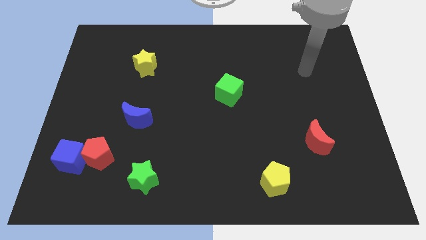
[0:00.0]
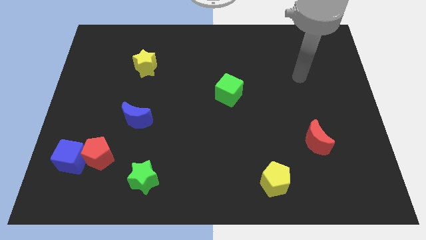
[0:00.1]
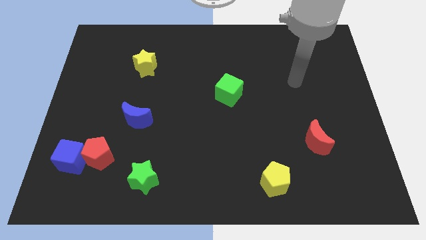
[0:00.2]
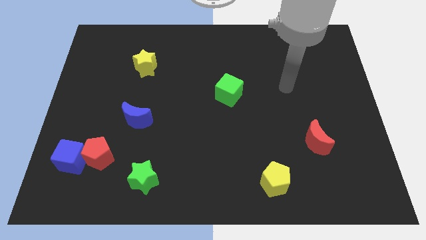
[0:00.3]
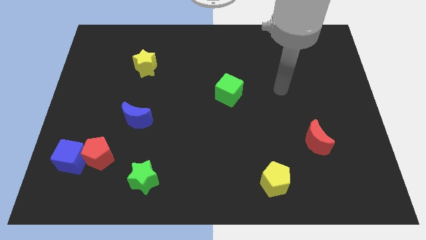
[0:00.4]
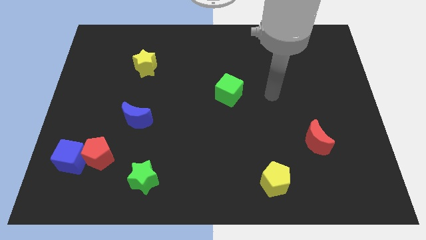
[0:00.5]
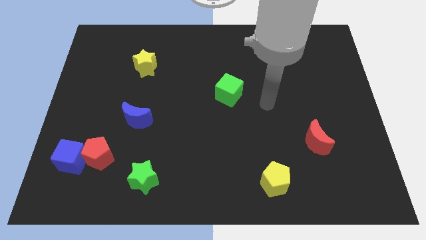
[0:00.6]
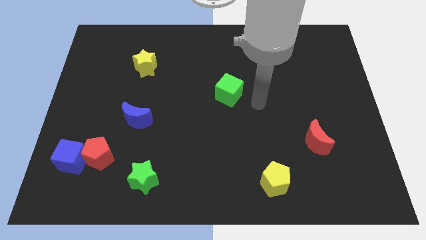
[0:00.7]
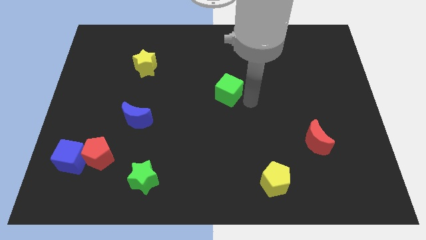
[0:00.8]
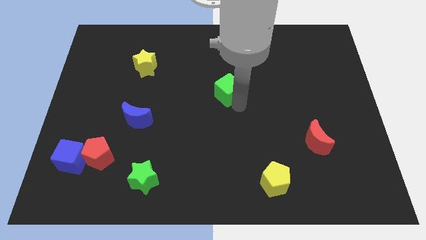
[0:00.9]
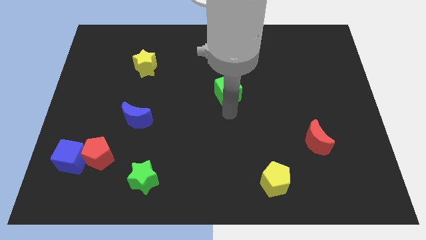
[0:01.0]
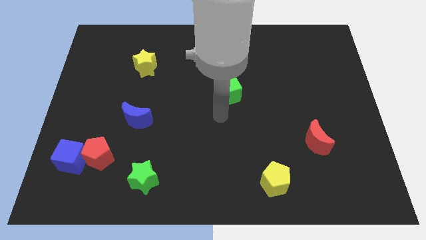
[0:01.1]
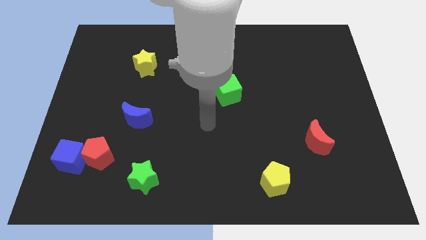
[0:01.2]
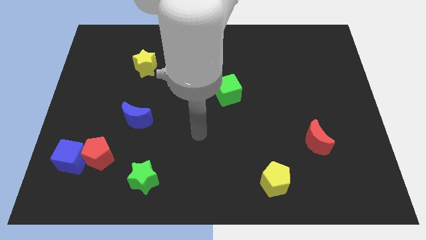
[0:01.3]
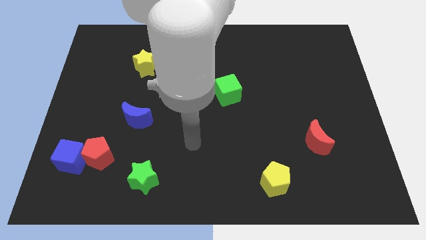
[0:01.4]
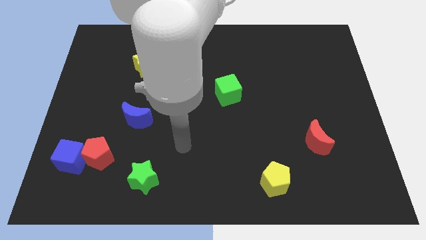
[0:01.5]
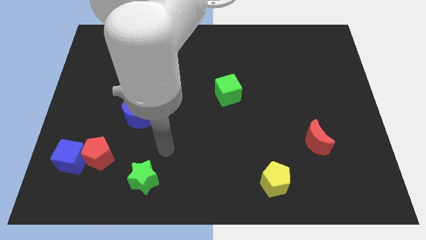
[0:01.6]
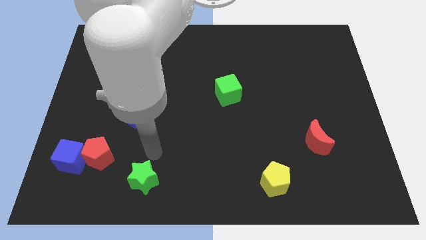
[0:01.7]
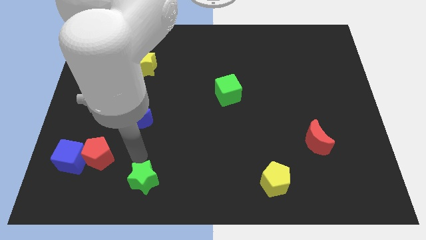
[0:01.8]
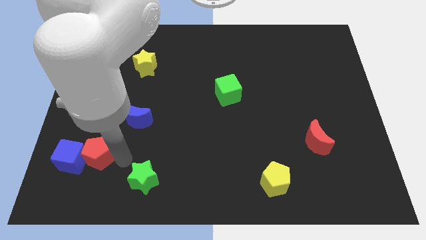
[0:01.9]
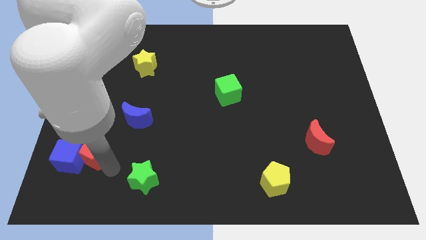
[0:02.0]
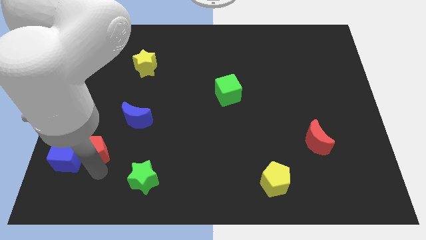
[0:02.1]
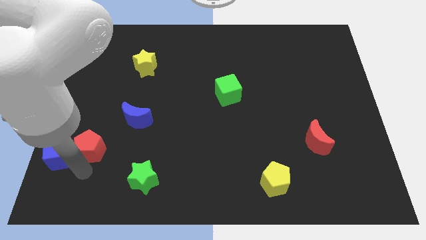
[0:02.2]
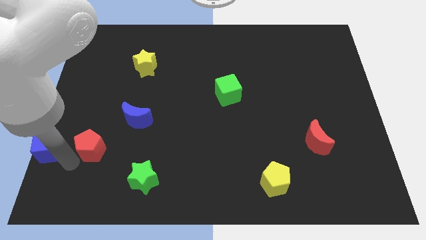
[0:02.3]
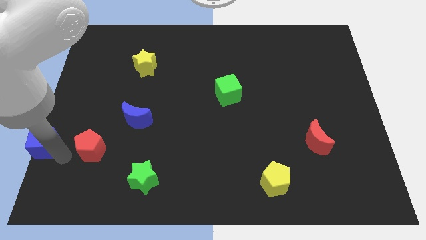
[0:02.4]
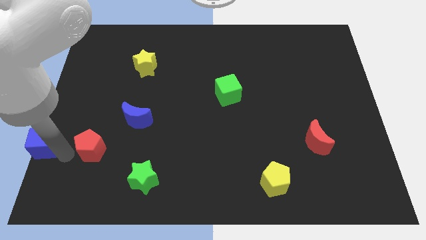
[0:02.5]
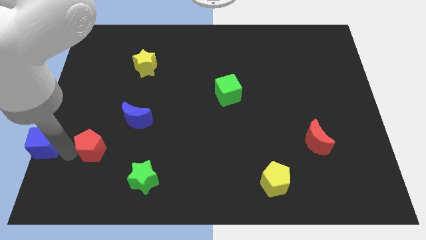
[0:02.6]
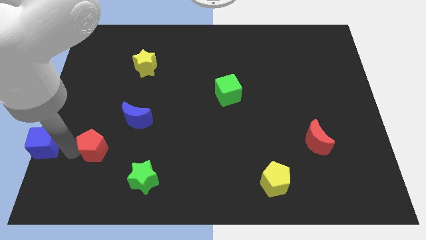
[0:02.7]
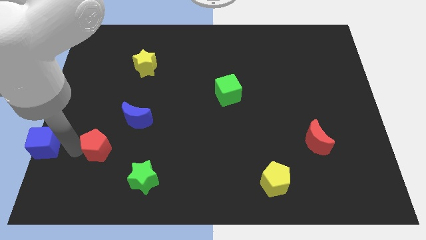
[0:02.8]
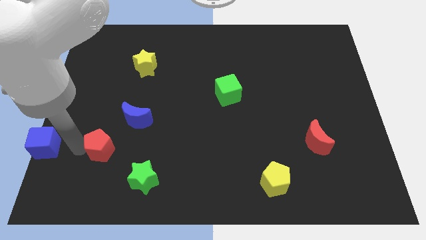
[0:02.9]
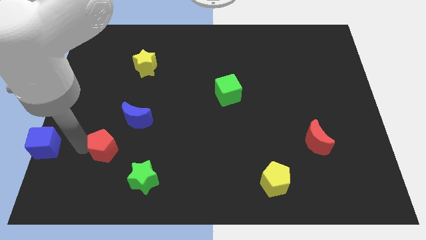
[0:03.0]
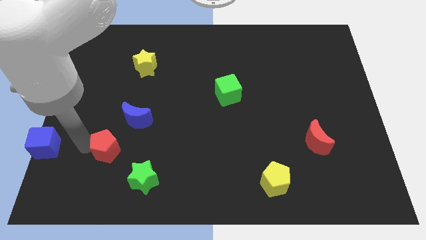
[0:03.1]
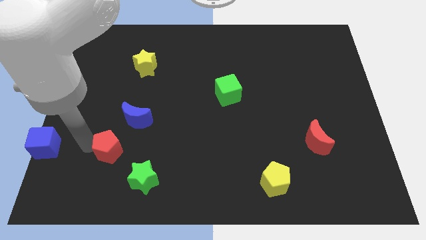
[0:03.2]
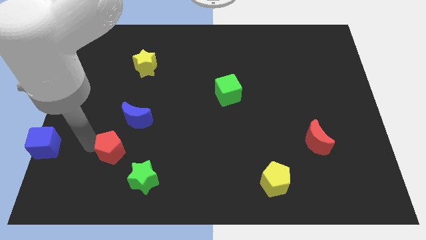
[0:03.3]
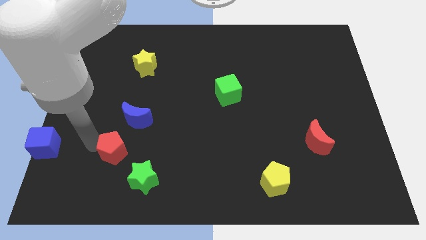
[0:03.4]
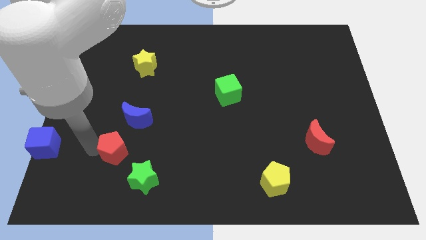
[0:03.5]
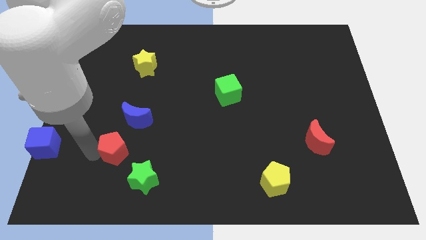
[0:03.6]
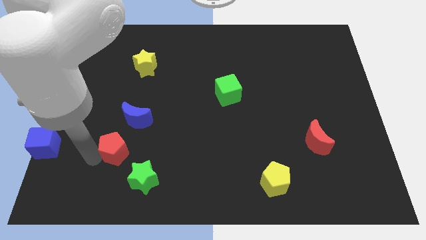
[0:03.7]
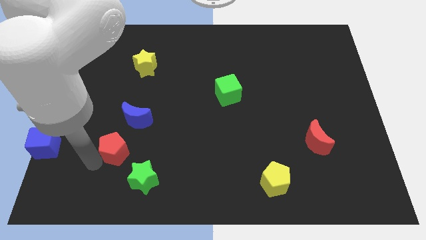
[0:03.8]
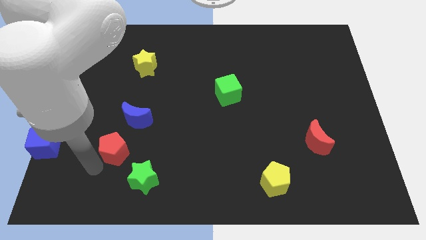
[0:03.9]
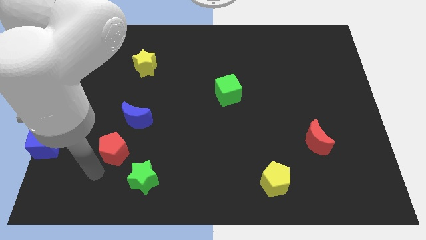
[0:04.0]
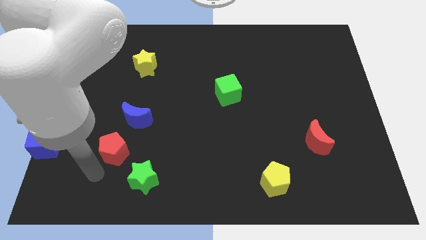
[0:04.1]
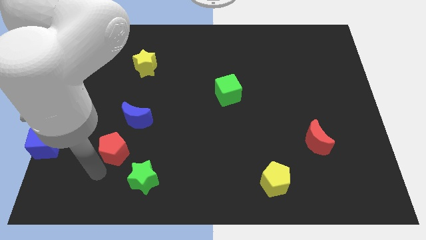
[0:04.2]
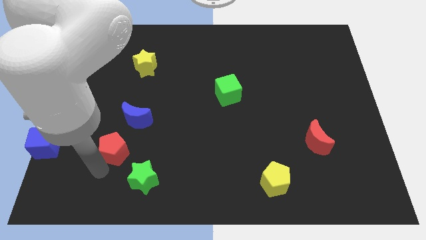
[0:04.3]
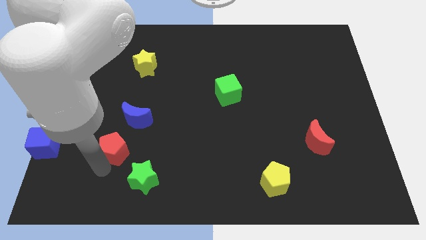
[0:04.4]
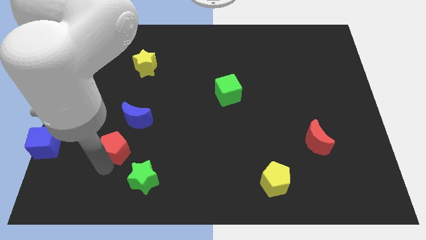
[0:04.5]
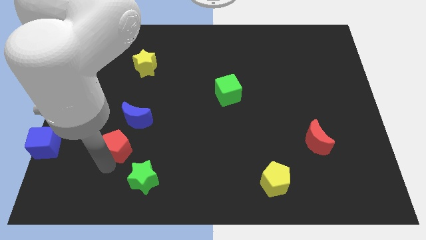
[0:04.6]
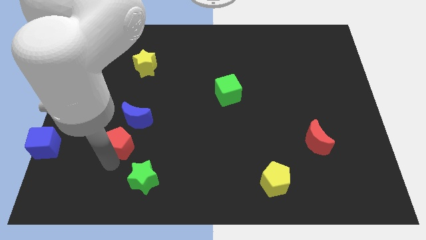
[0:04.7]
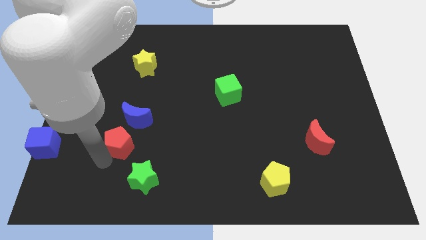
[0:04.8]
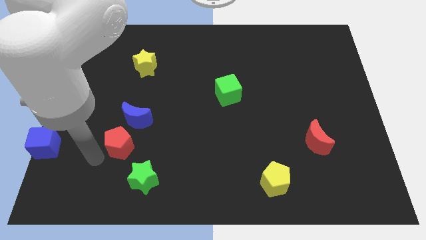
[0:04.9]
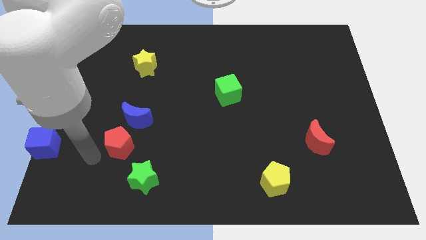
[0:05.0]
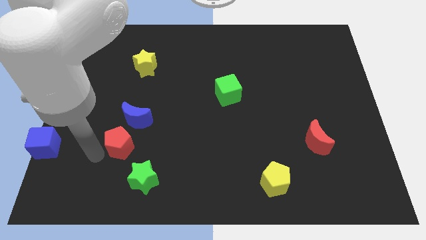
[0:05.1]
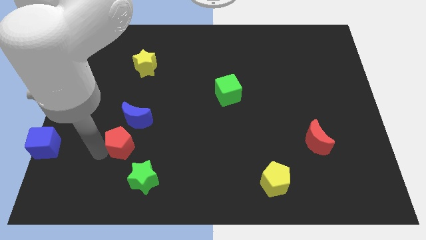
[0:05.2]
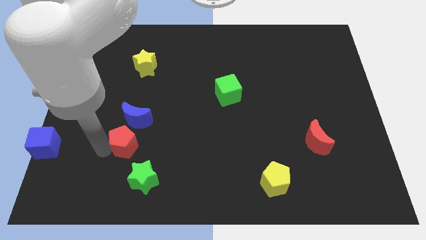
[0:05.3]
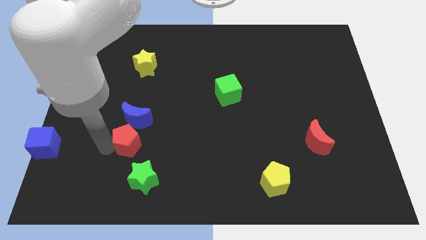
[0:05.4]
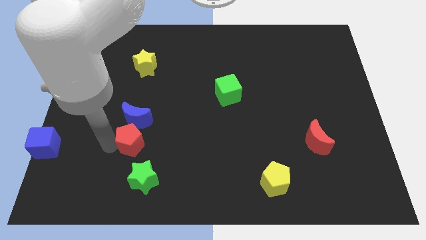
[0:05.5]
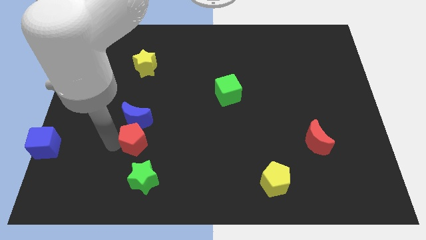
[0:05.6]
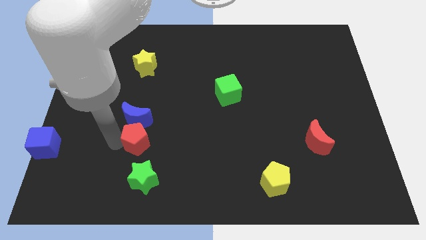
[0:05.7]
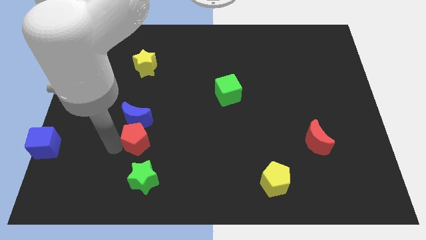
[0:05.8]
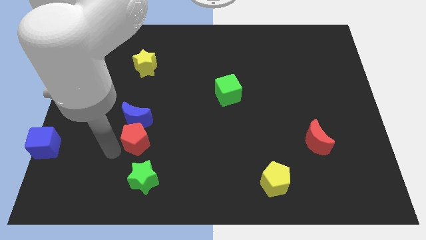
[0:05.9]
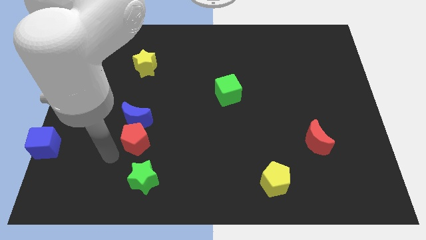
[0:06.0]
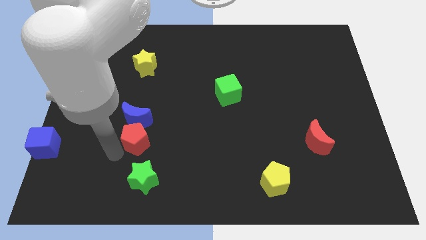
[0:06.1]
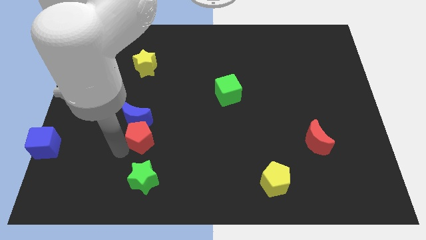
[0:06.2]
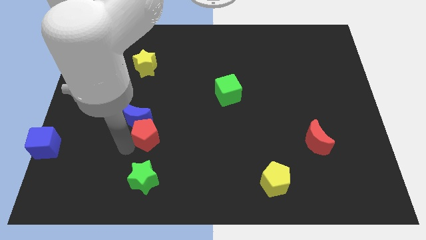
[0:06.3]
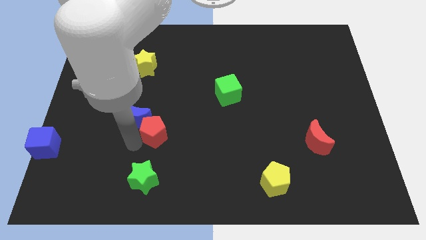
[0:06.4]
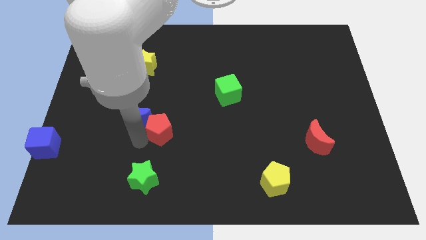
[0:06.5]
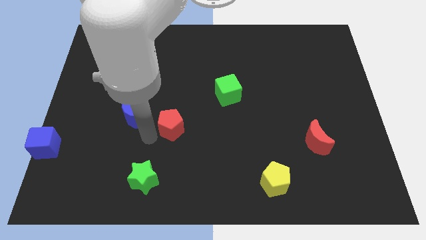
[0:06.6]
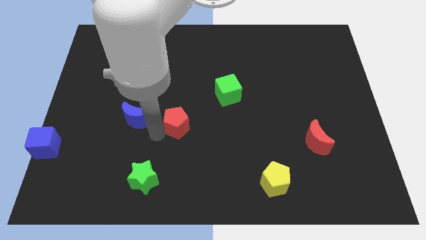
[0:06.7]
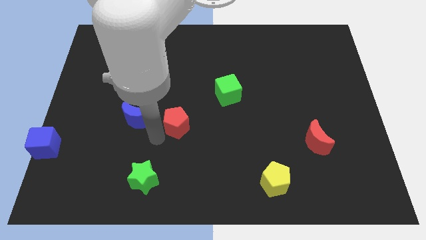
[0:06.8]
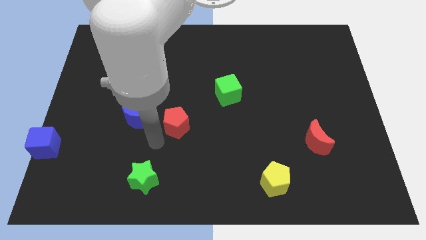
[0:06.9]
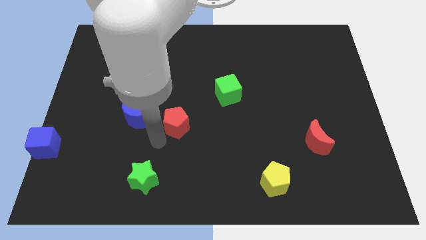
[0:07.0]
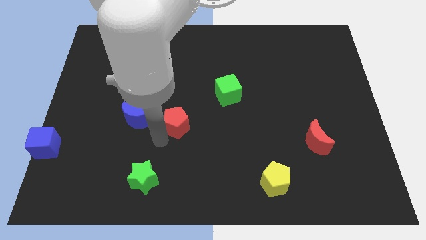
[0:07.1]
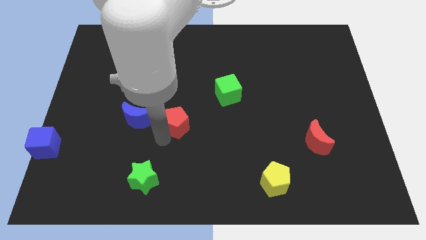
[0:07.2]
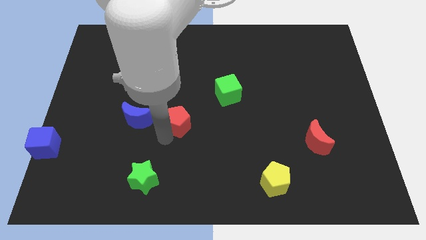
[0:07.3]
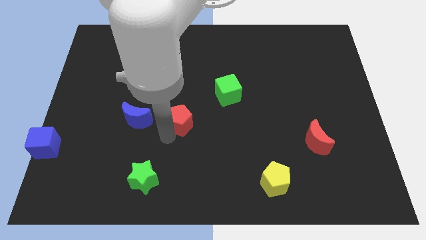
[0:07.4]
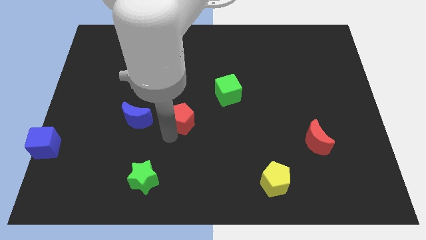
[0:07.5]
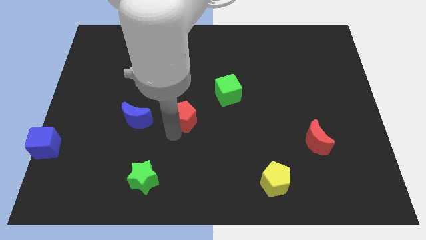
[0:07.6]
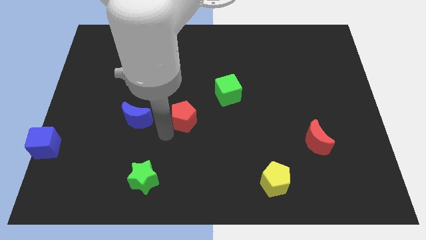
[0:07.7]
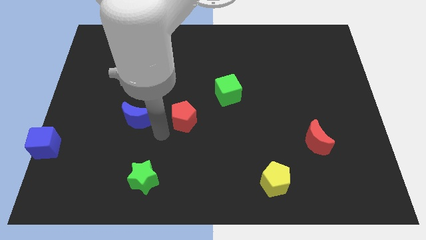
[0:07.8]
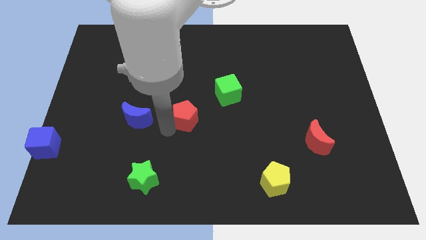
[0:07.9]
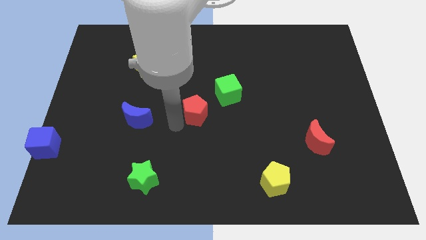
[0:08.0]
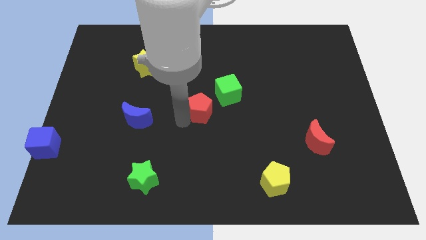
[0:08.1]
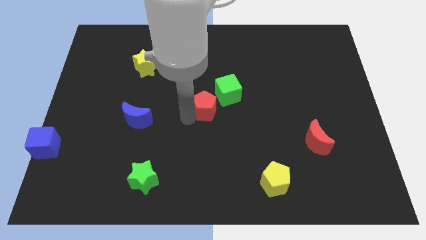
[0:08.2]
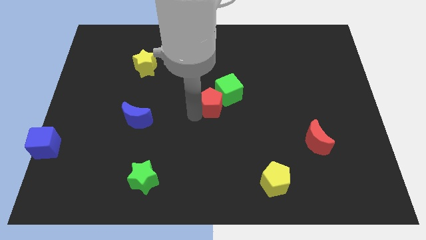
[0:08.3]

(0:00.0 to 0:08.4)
move the red pentagon towards the green cube
